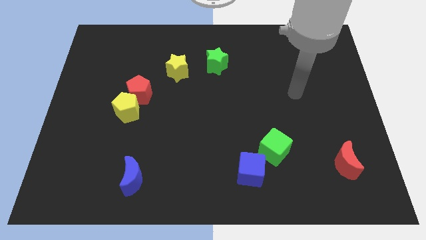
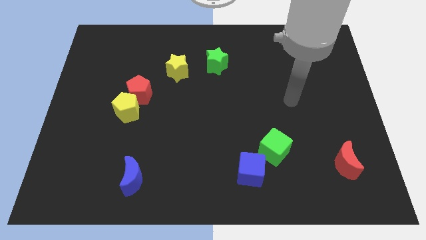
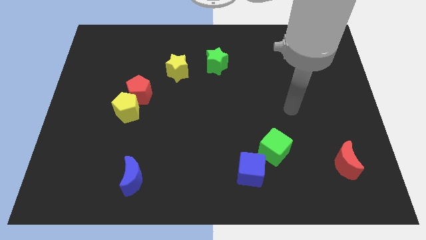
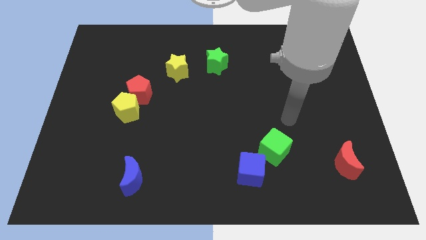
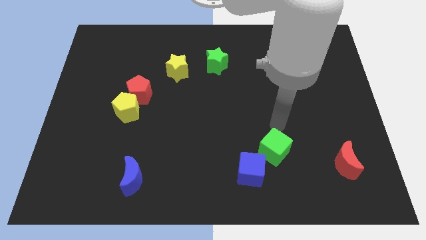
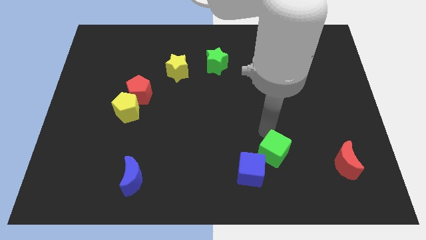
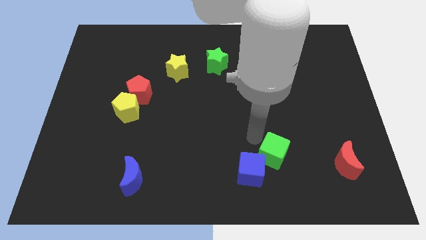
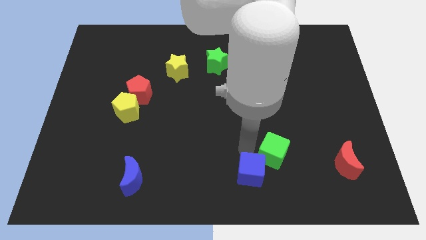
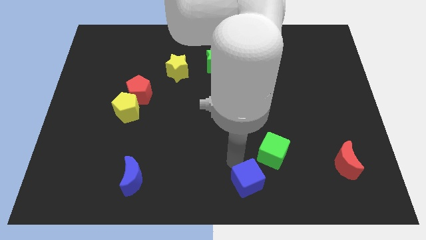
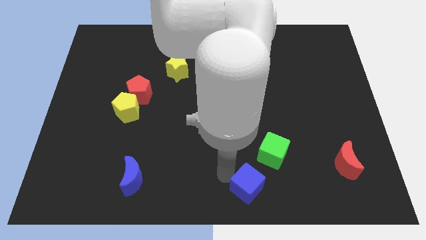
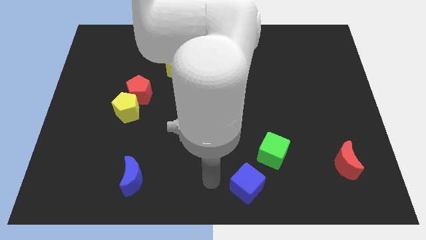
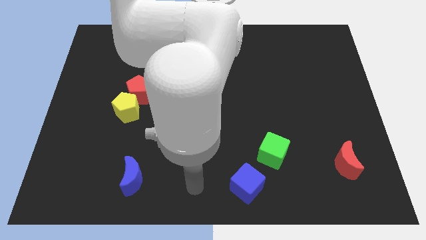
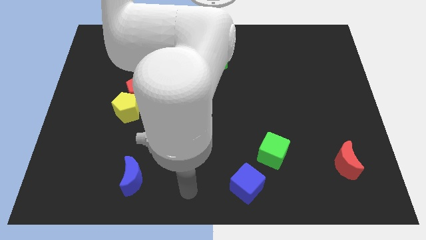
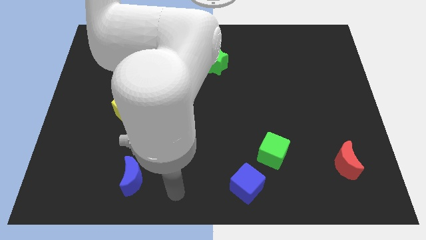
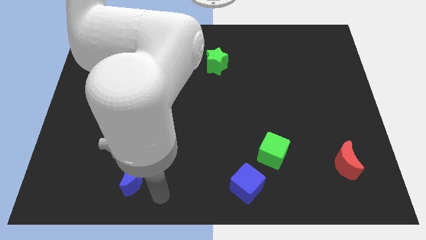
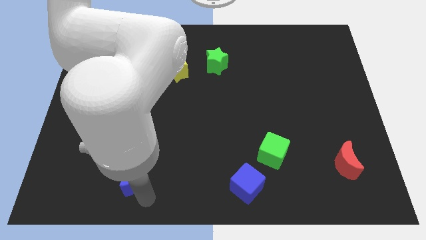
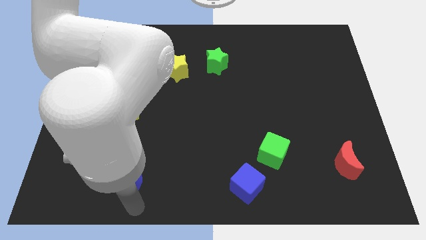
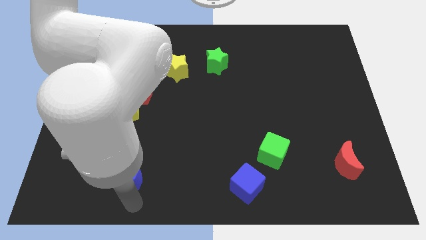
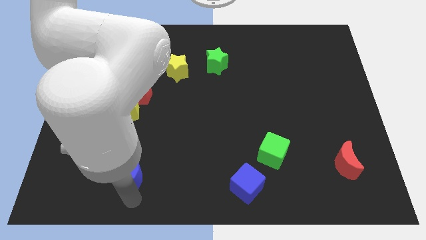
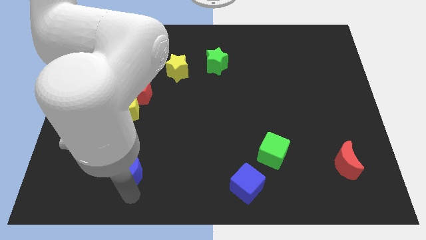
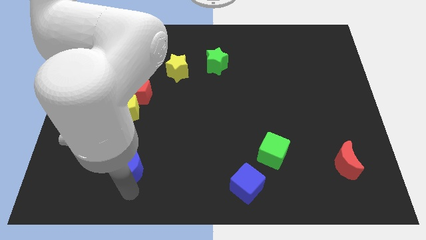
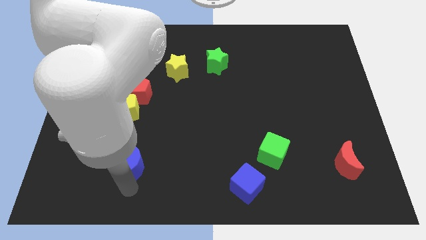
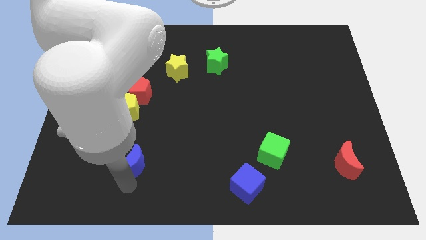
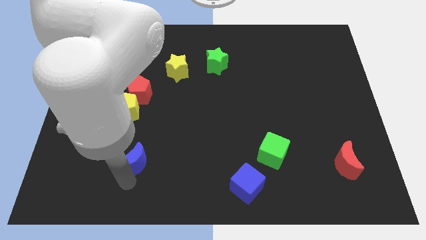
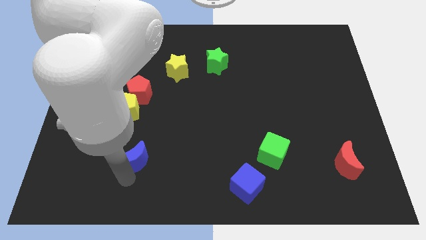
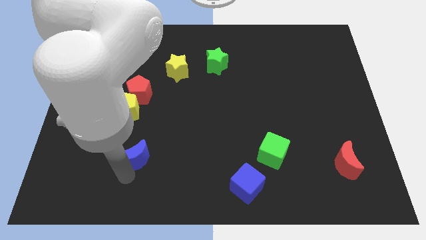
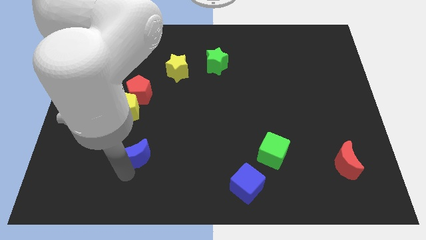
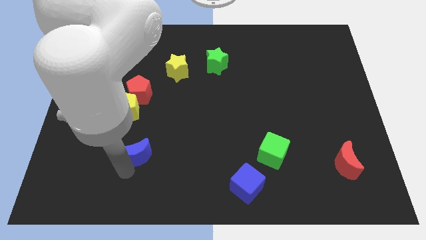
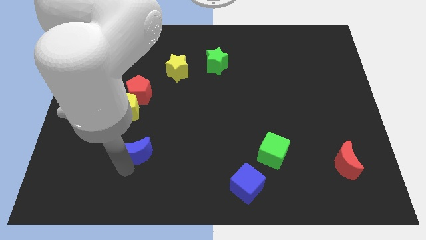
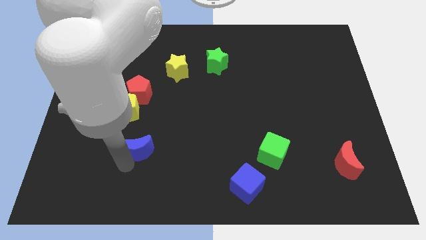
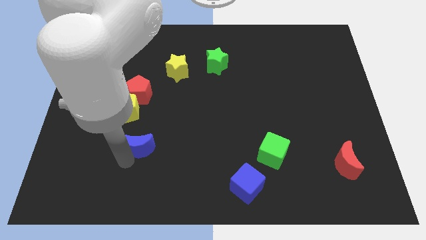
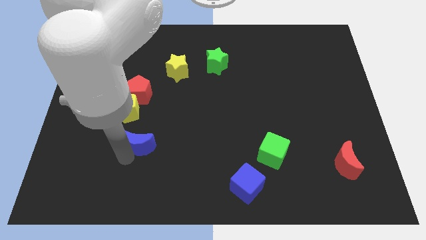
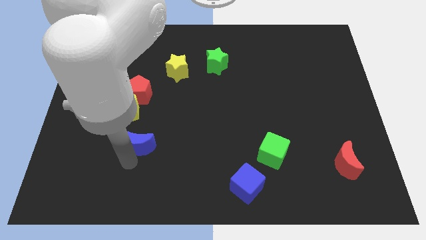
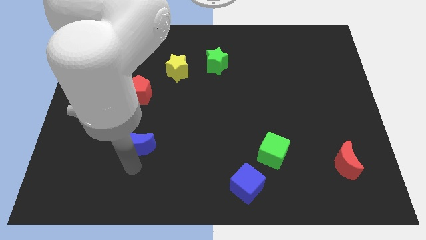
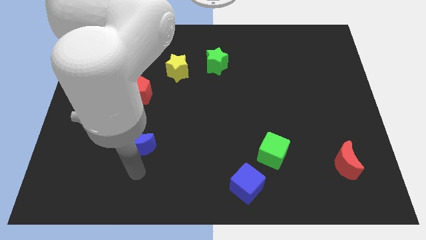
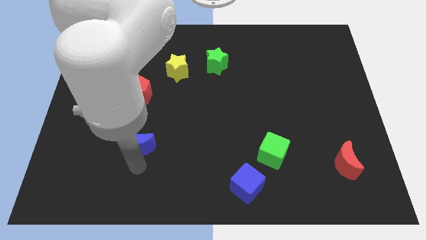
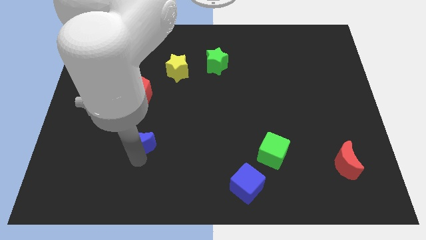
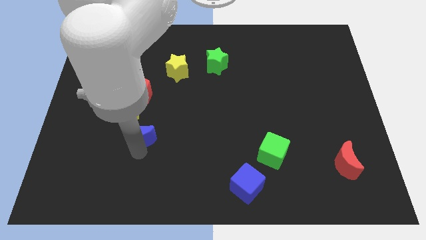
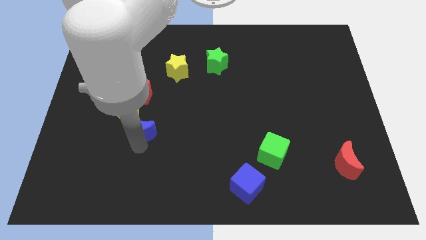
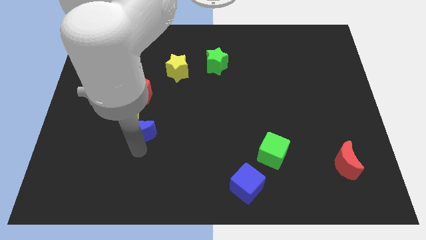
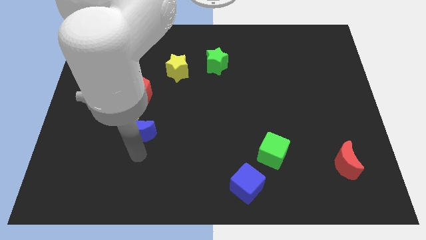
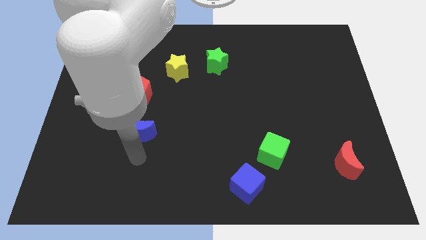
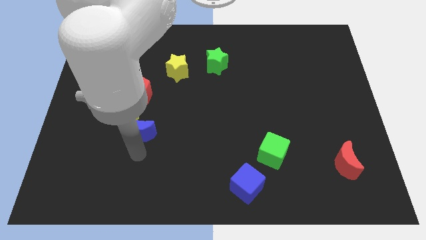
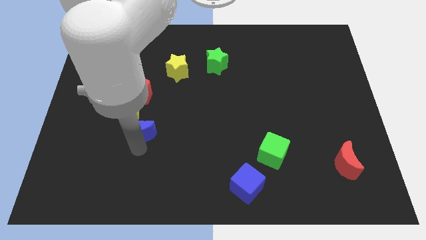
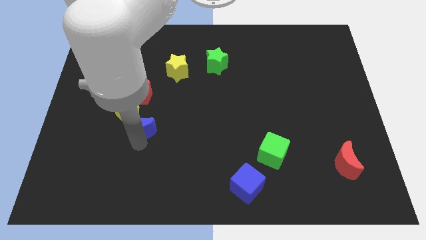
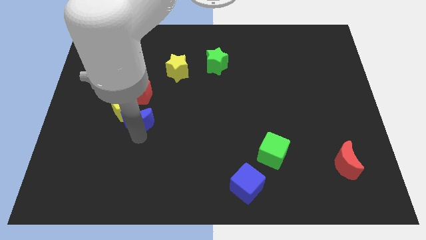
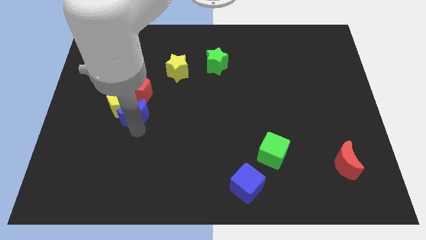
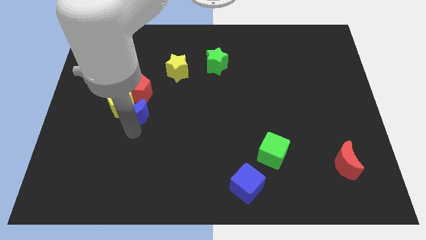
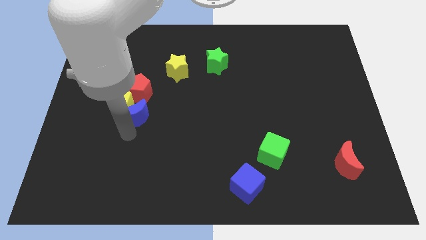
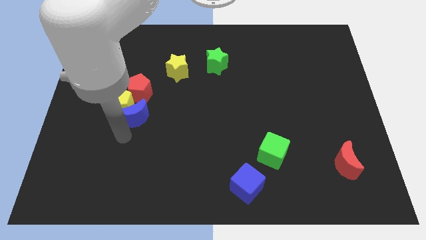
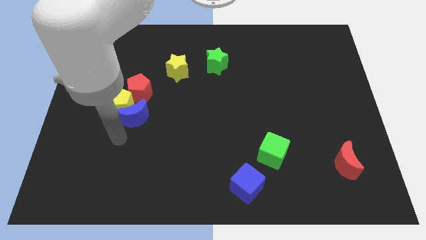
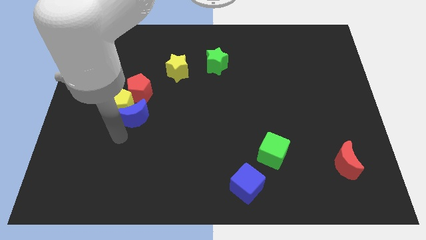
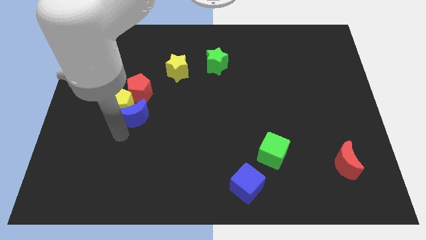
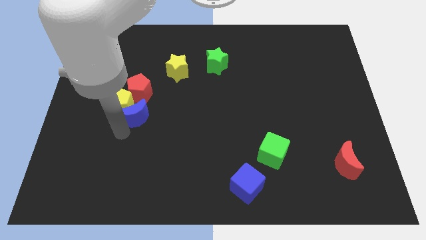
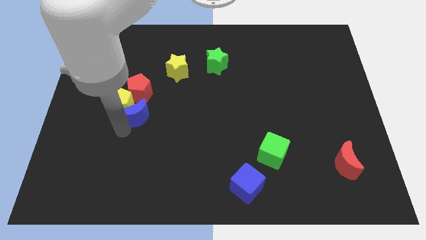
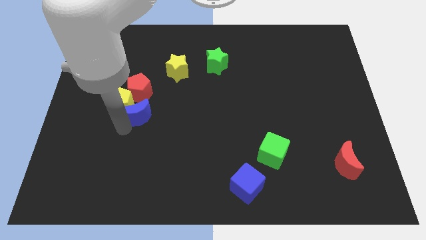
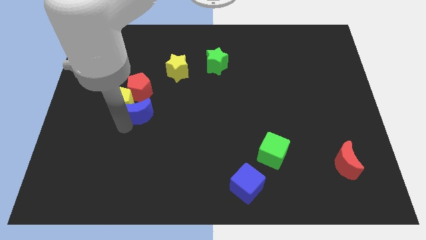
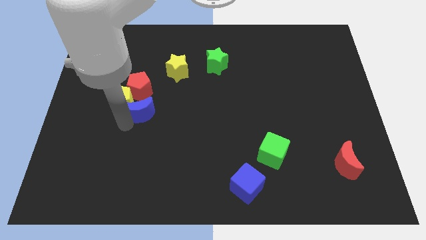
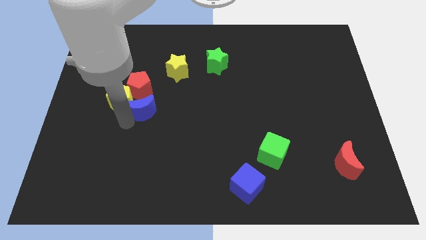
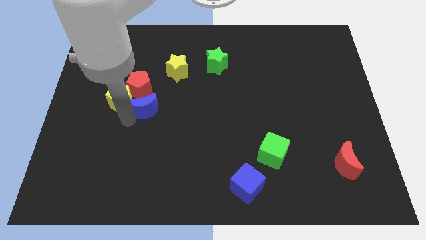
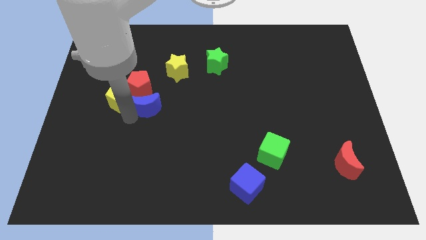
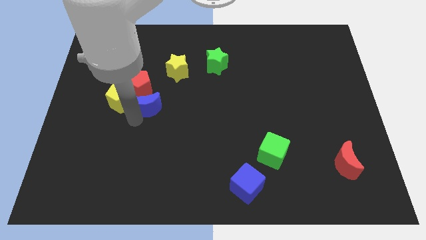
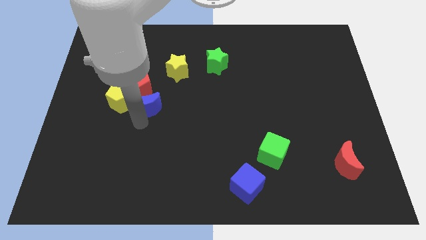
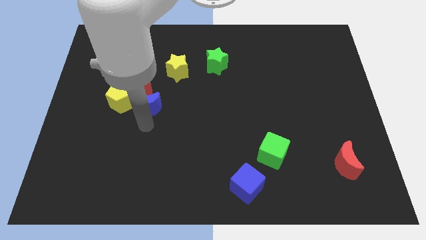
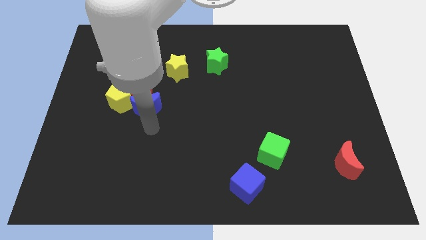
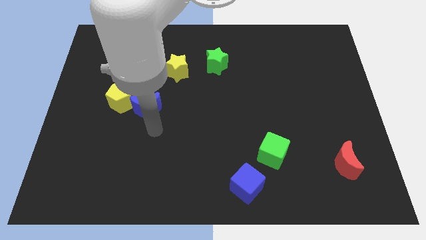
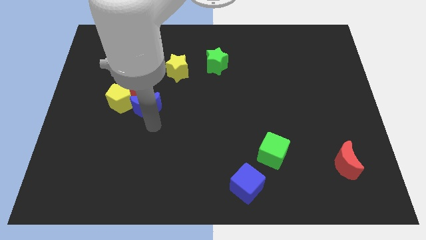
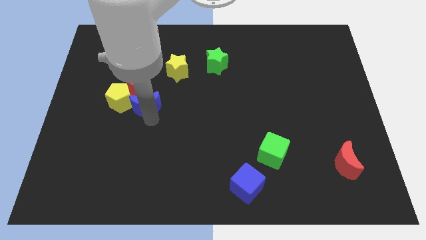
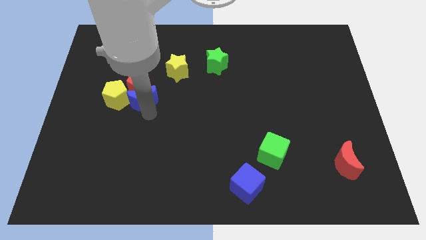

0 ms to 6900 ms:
slide the blue moon next to the red pentagon
